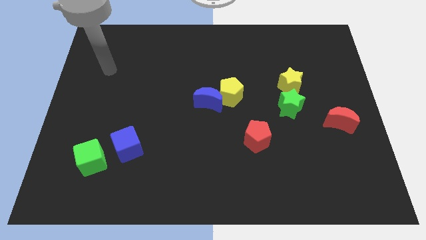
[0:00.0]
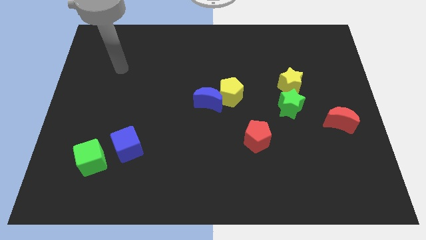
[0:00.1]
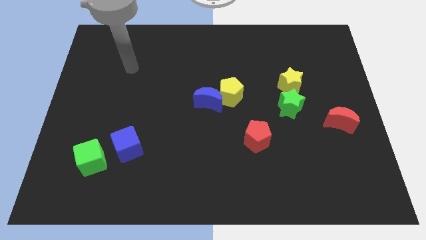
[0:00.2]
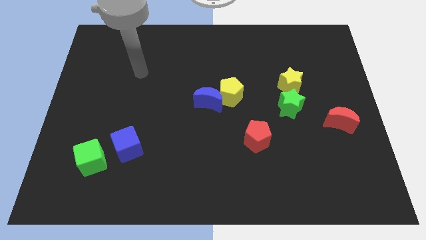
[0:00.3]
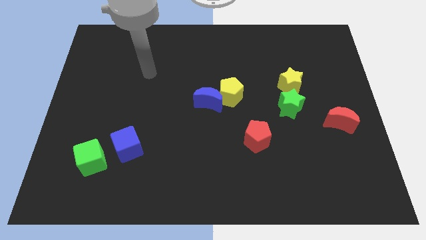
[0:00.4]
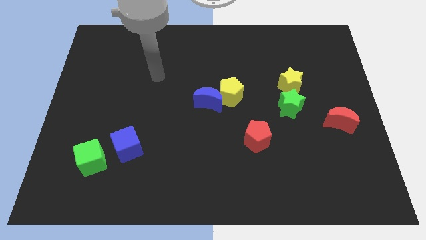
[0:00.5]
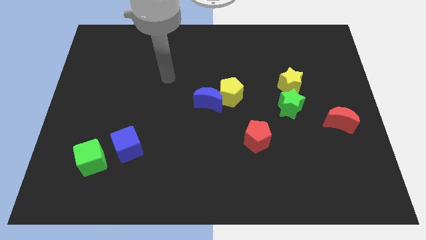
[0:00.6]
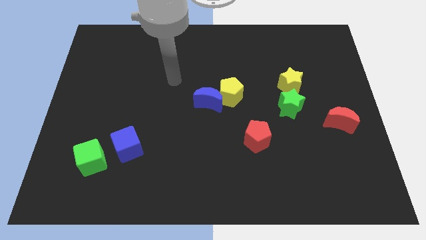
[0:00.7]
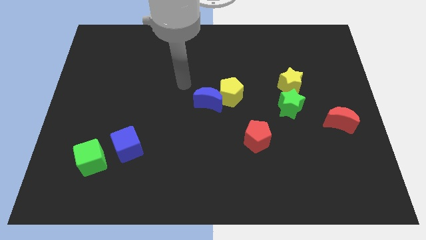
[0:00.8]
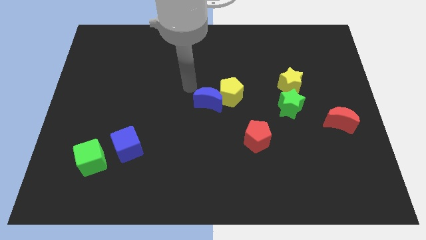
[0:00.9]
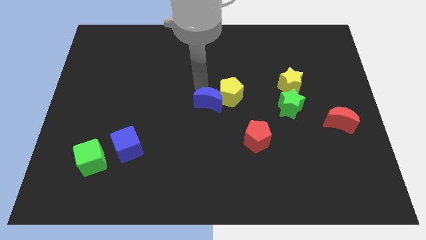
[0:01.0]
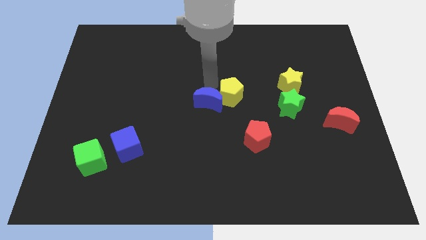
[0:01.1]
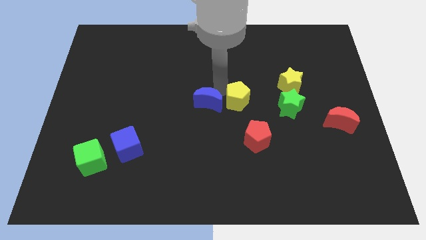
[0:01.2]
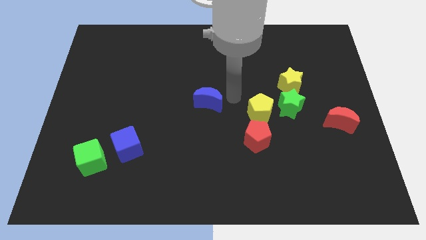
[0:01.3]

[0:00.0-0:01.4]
pull the blue moon apart from the yellow pentagon

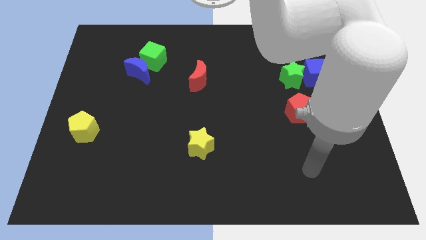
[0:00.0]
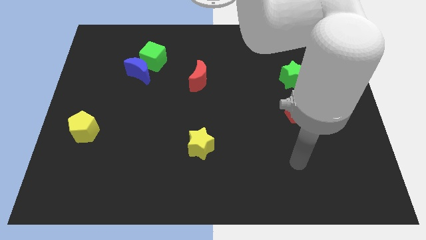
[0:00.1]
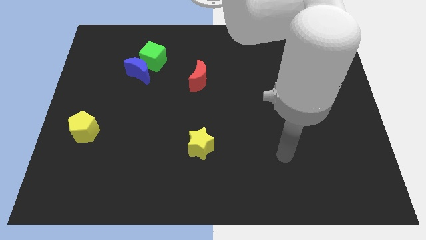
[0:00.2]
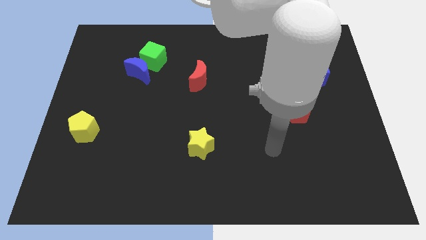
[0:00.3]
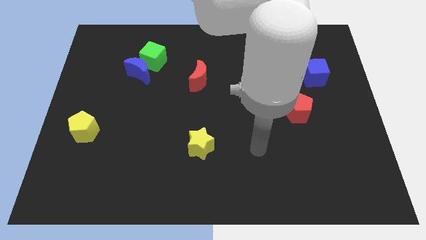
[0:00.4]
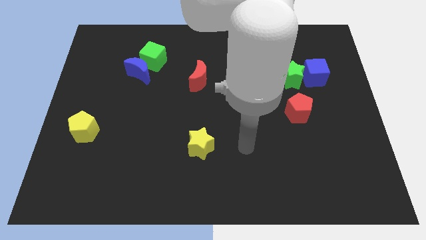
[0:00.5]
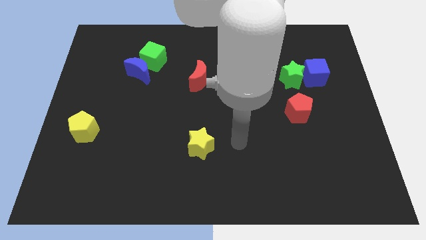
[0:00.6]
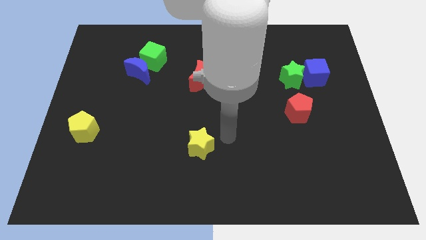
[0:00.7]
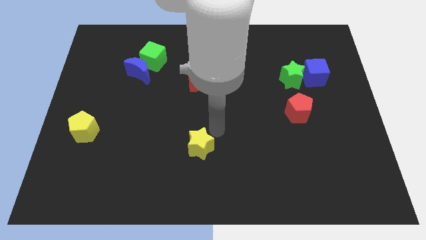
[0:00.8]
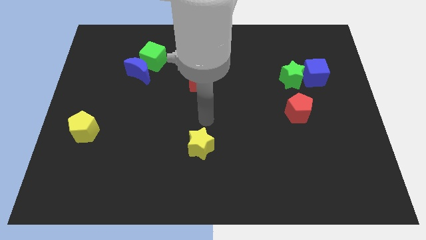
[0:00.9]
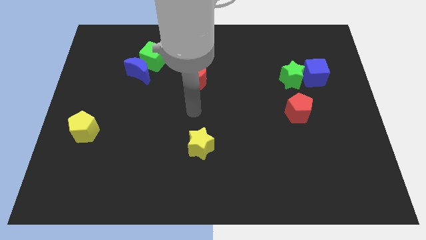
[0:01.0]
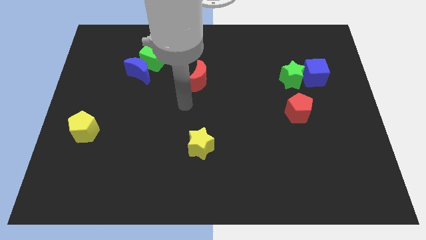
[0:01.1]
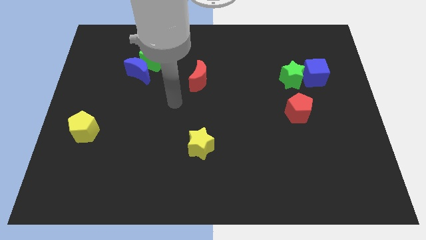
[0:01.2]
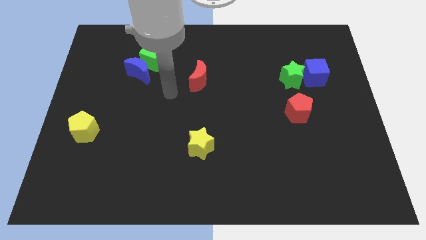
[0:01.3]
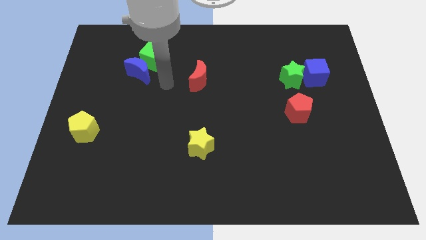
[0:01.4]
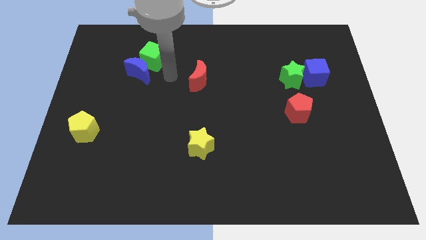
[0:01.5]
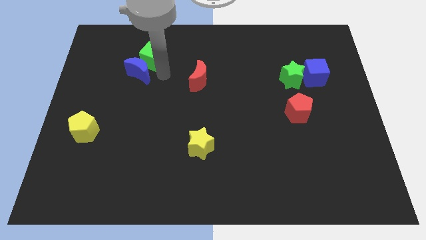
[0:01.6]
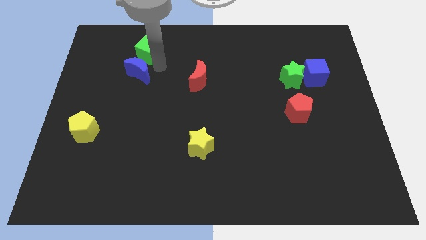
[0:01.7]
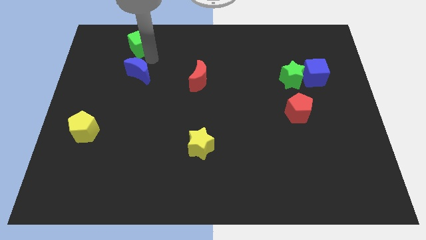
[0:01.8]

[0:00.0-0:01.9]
separate the blue moon from the green cube

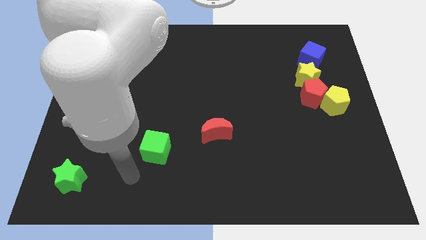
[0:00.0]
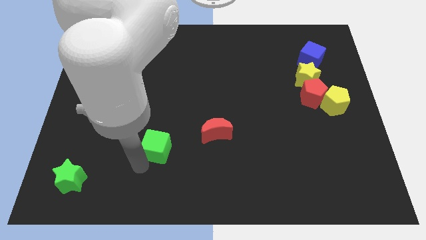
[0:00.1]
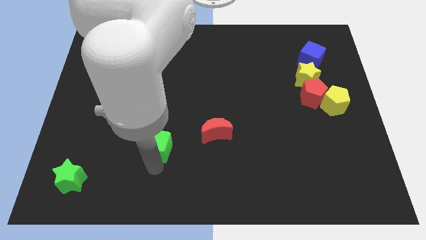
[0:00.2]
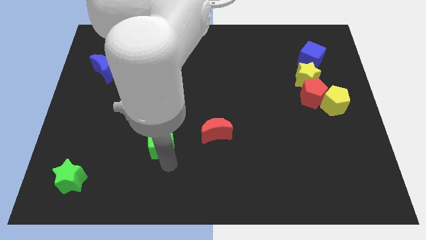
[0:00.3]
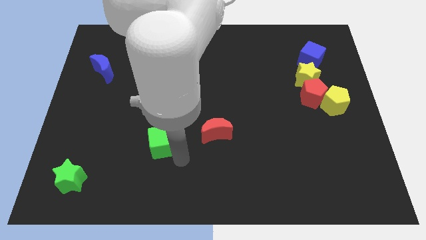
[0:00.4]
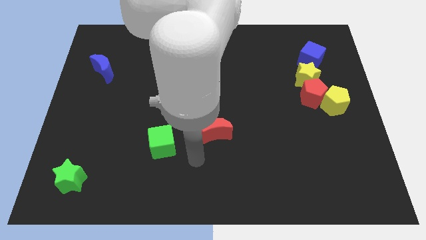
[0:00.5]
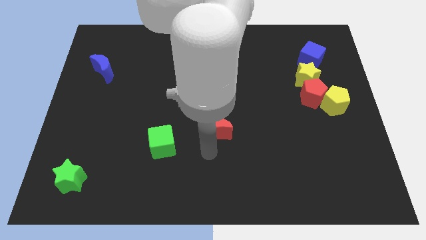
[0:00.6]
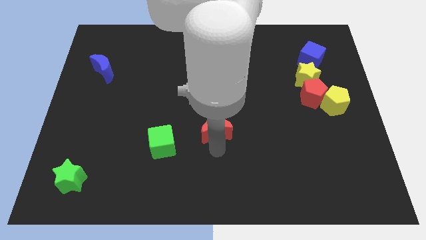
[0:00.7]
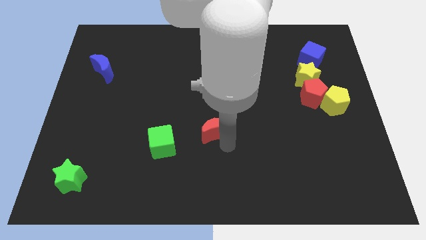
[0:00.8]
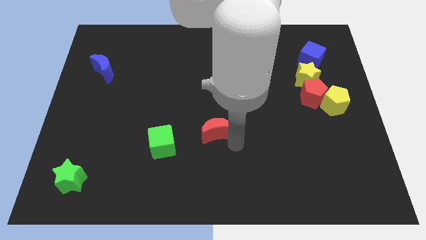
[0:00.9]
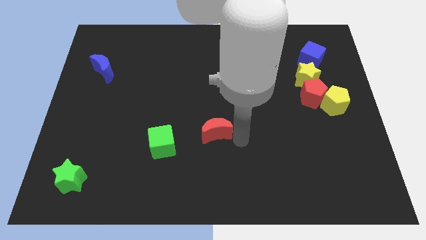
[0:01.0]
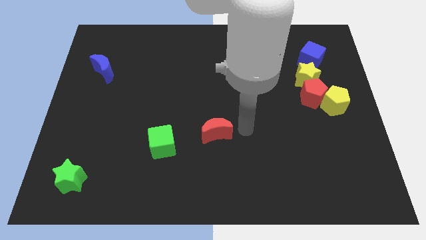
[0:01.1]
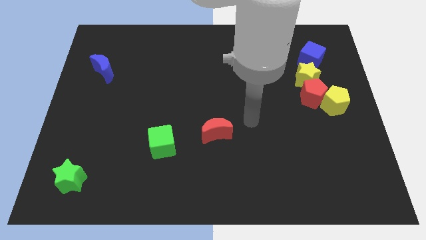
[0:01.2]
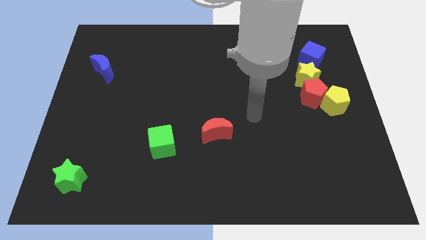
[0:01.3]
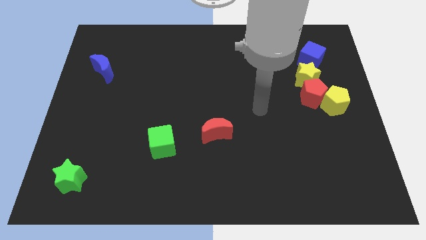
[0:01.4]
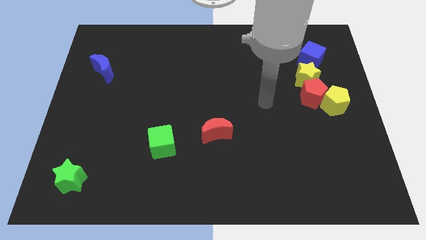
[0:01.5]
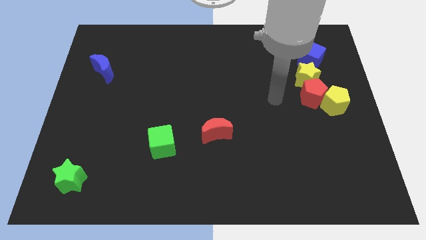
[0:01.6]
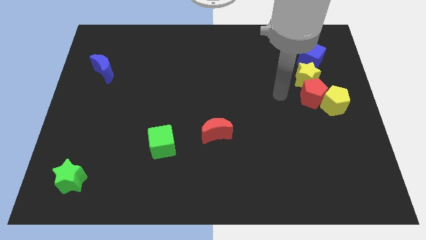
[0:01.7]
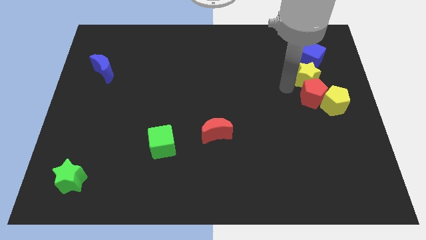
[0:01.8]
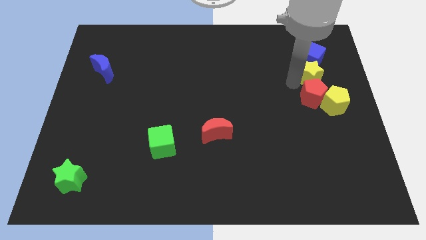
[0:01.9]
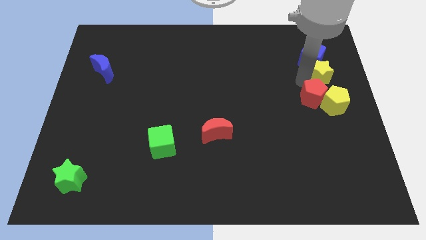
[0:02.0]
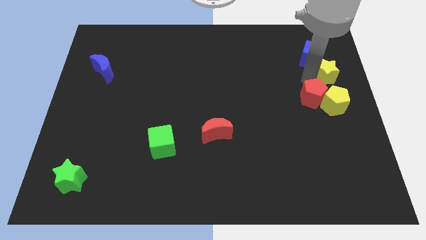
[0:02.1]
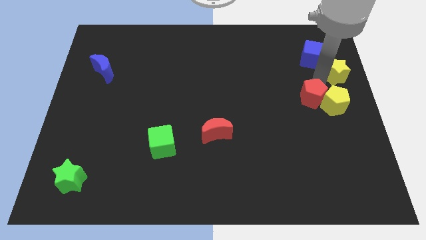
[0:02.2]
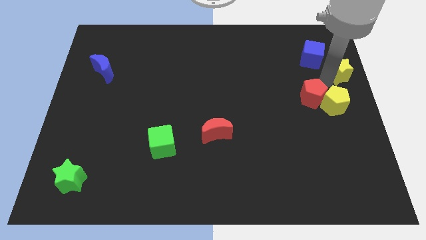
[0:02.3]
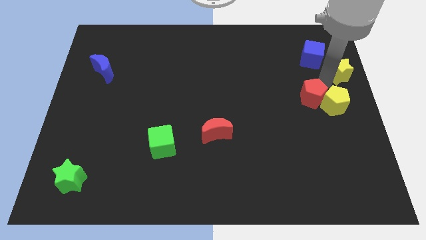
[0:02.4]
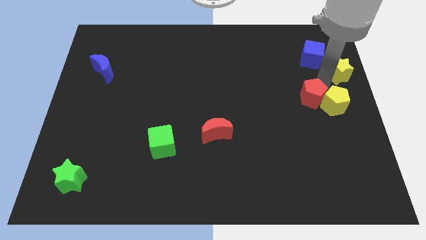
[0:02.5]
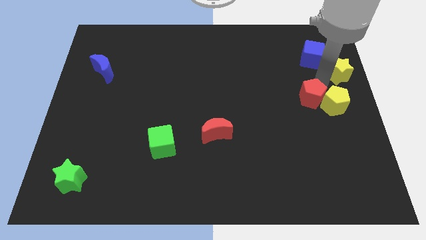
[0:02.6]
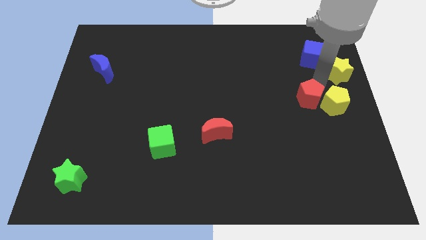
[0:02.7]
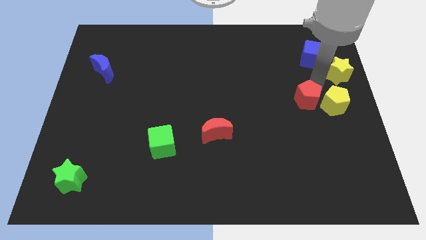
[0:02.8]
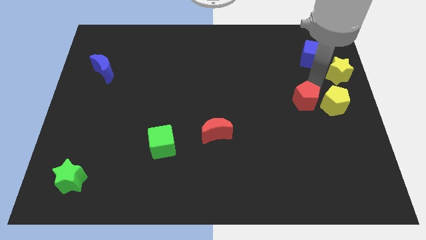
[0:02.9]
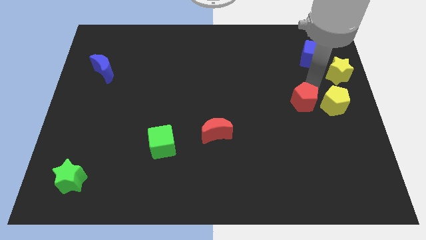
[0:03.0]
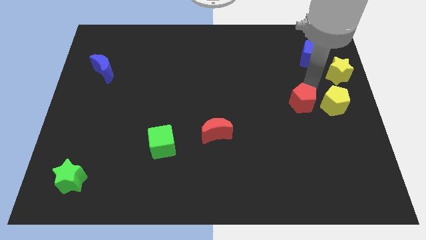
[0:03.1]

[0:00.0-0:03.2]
move the red pentagon away from the yellow pentagon and yellow star

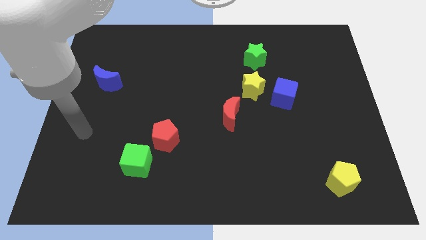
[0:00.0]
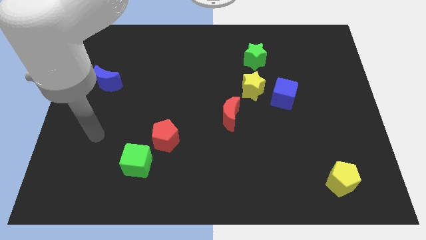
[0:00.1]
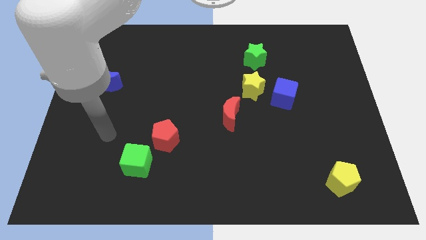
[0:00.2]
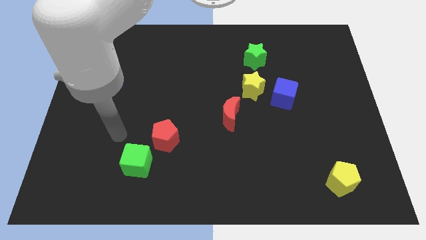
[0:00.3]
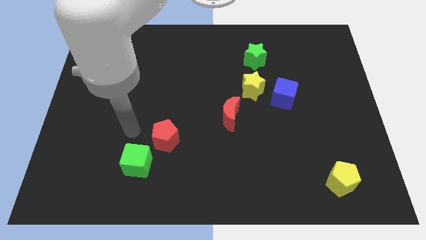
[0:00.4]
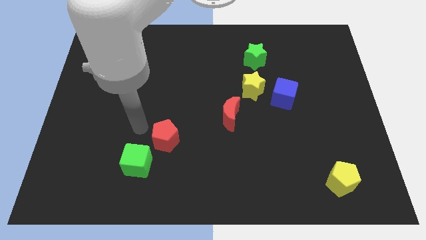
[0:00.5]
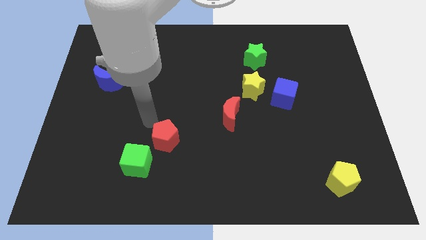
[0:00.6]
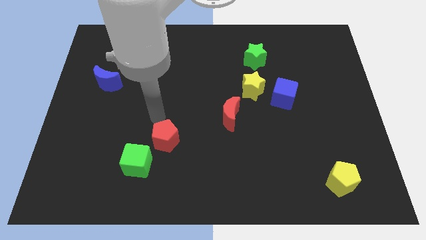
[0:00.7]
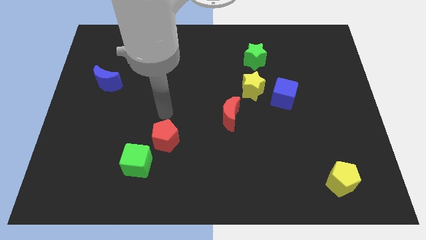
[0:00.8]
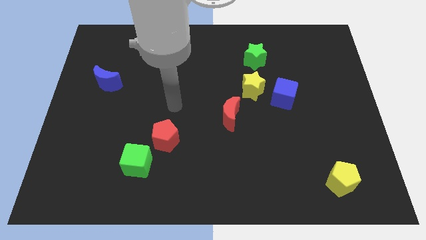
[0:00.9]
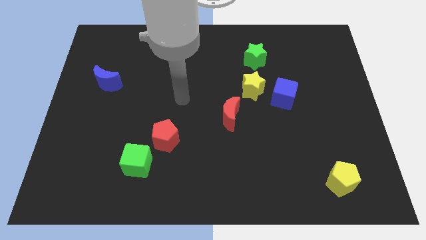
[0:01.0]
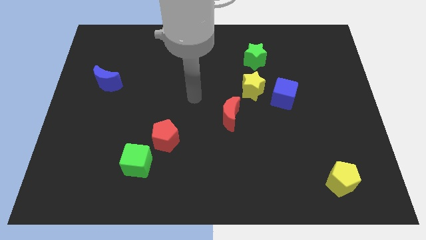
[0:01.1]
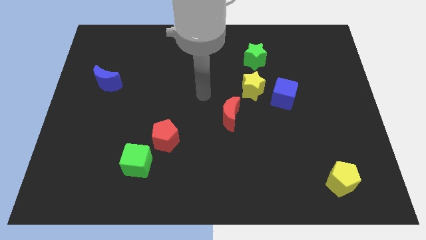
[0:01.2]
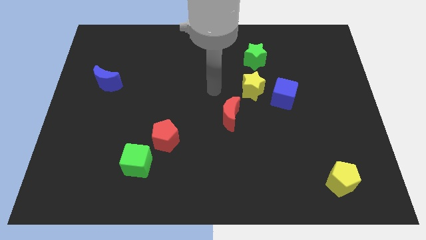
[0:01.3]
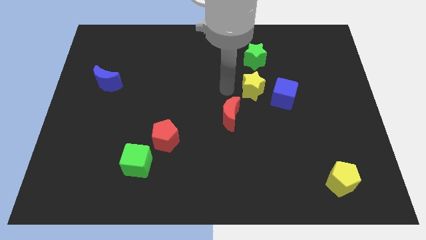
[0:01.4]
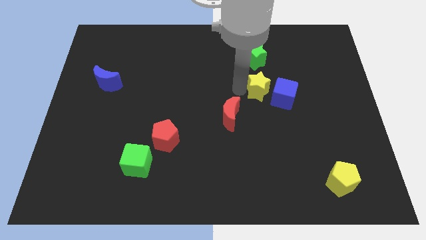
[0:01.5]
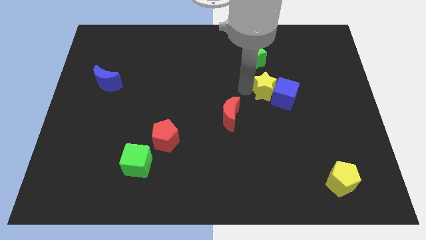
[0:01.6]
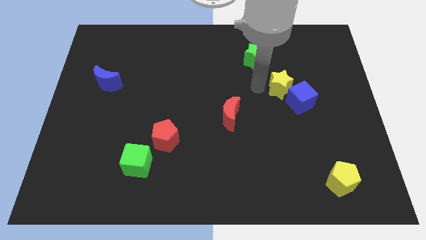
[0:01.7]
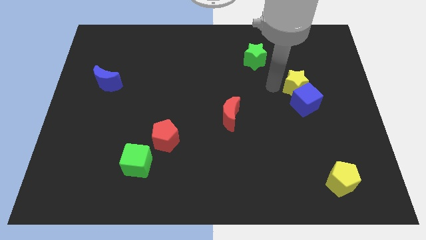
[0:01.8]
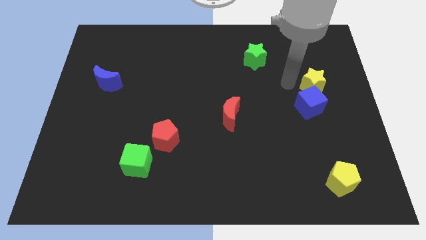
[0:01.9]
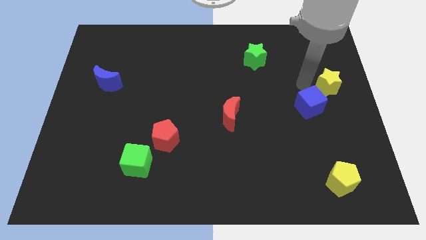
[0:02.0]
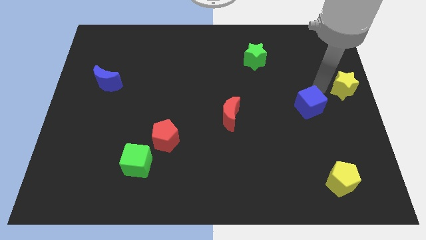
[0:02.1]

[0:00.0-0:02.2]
pull the blue cube apart from the yellow star

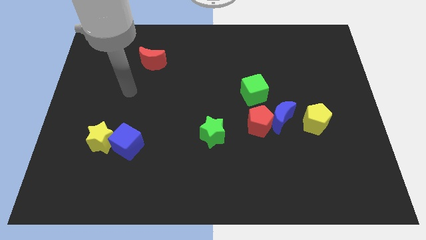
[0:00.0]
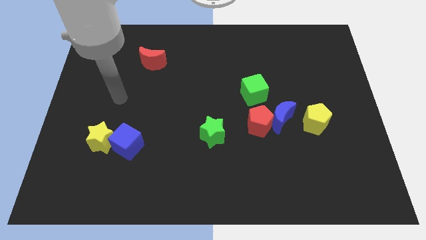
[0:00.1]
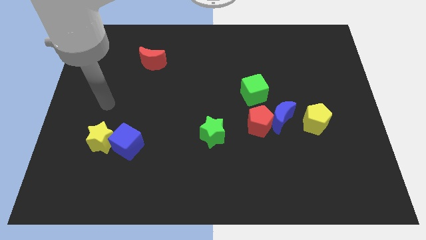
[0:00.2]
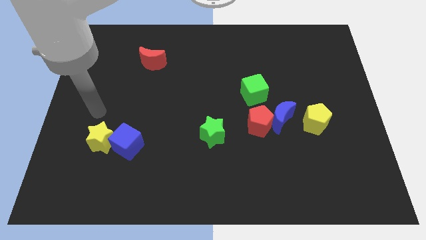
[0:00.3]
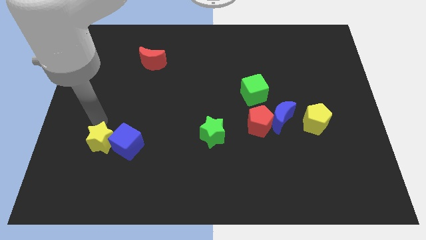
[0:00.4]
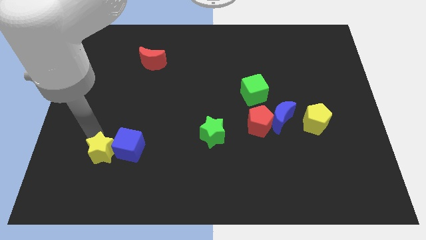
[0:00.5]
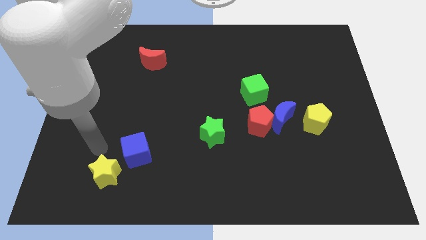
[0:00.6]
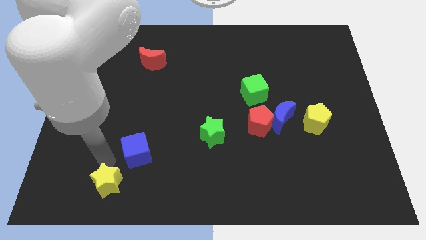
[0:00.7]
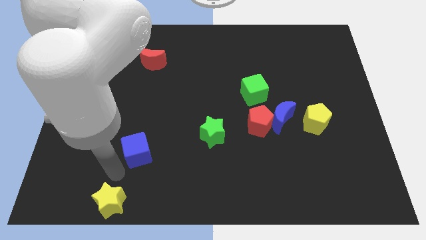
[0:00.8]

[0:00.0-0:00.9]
move the blue cube away from the yellow star
